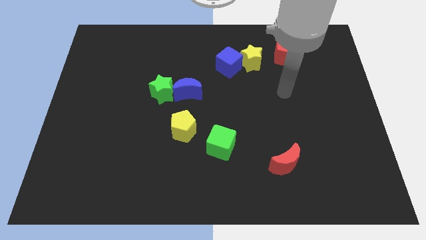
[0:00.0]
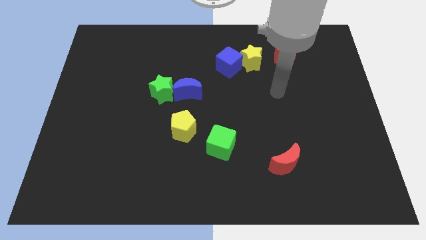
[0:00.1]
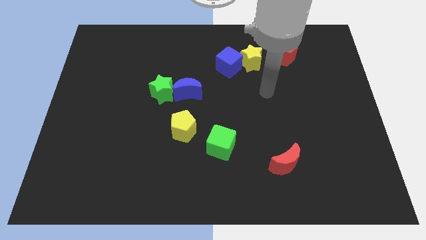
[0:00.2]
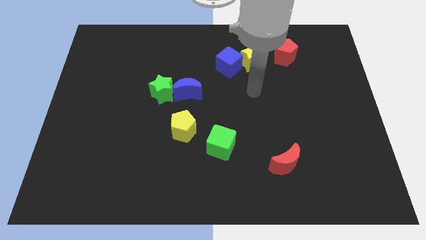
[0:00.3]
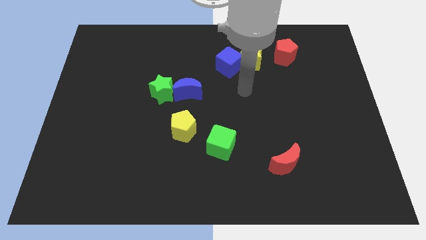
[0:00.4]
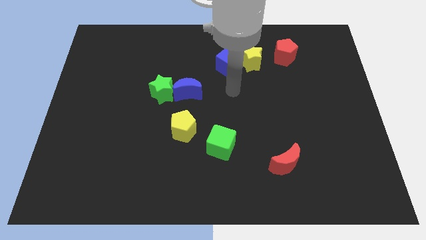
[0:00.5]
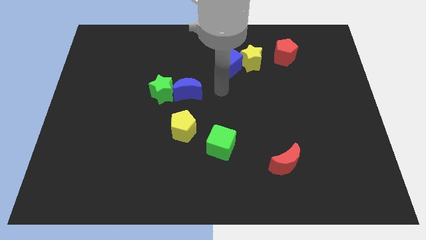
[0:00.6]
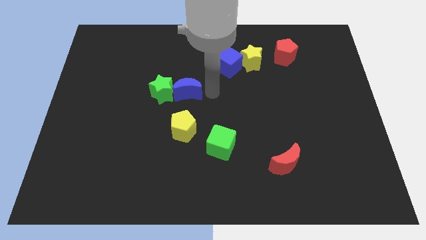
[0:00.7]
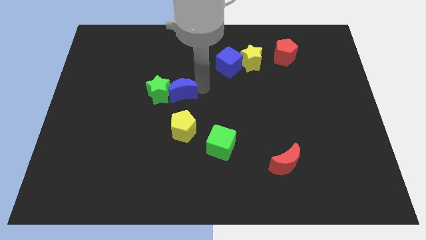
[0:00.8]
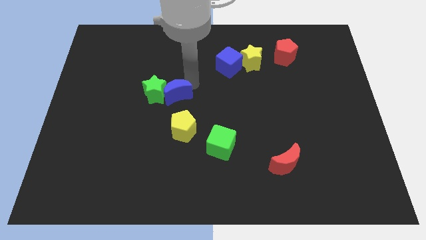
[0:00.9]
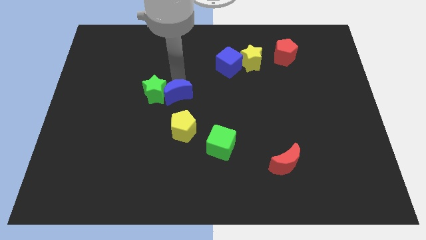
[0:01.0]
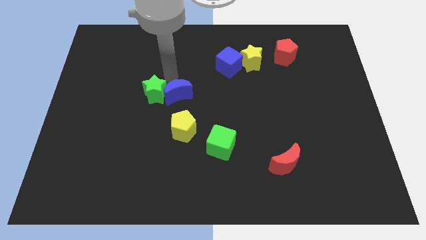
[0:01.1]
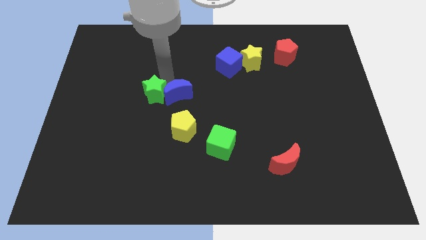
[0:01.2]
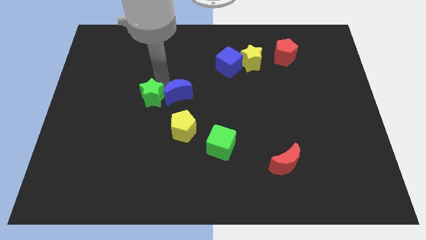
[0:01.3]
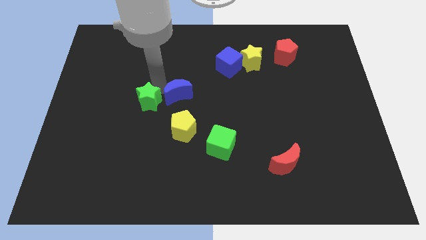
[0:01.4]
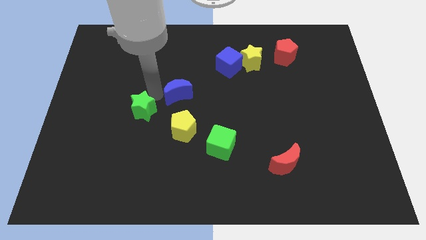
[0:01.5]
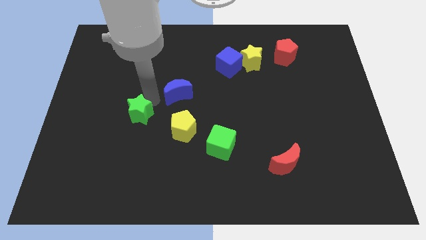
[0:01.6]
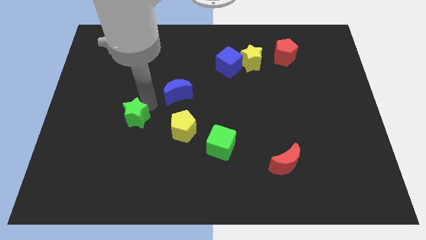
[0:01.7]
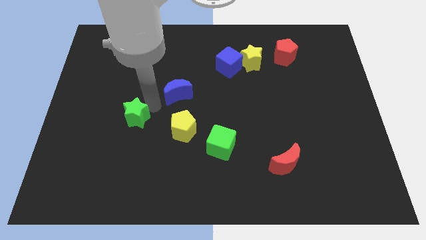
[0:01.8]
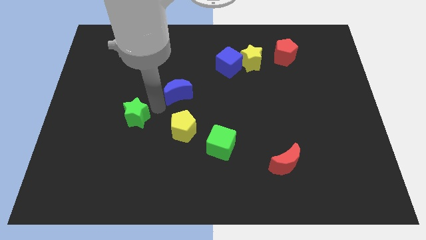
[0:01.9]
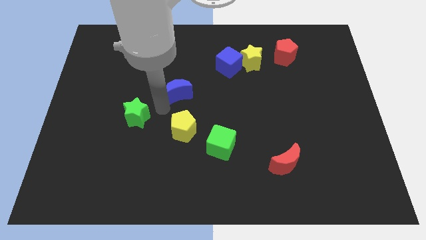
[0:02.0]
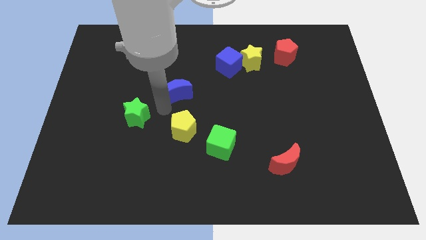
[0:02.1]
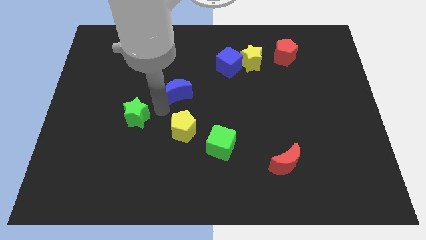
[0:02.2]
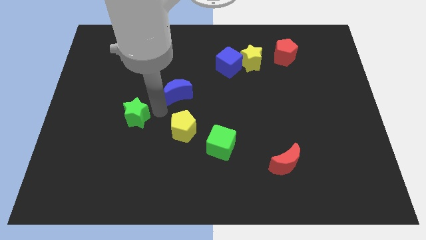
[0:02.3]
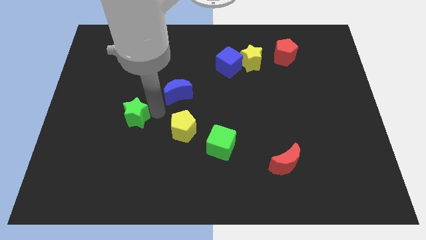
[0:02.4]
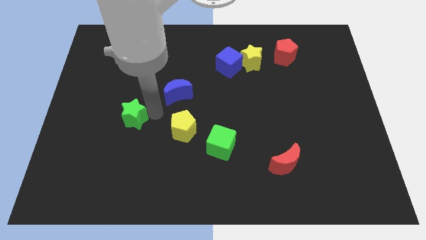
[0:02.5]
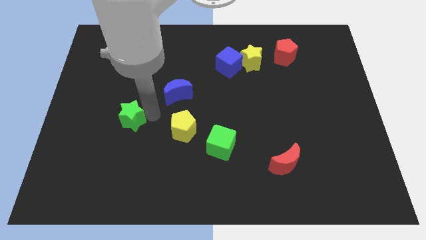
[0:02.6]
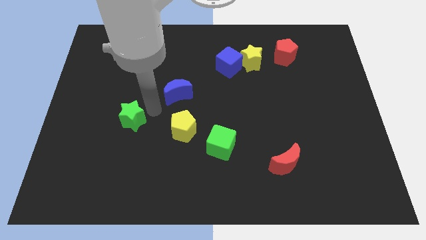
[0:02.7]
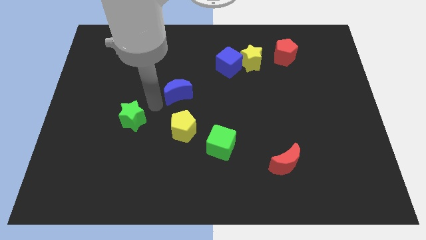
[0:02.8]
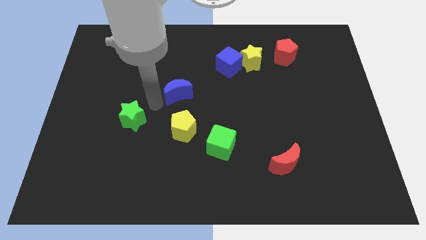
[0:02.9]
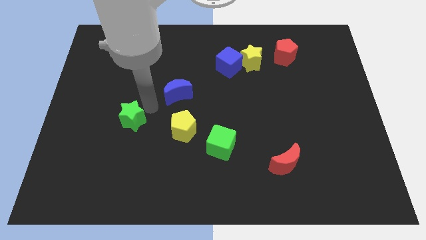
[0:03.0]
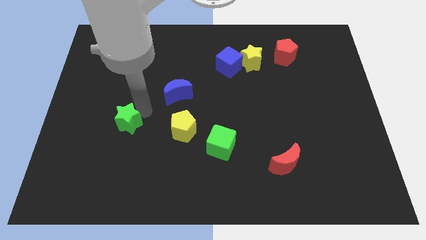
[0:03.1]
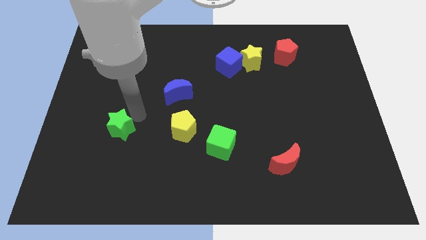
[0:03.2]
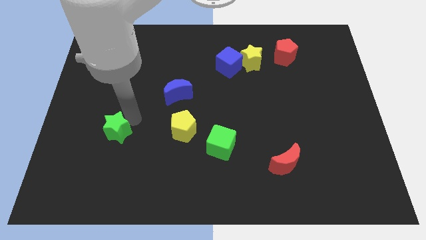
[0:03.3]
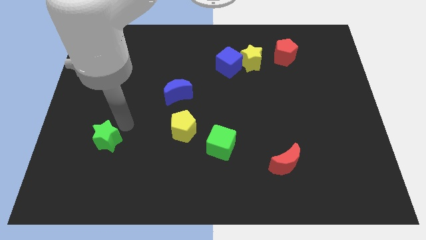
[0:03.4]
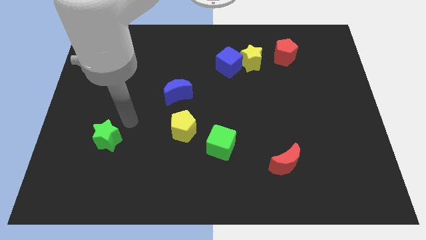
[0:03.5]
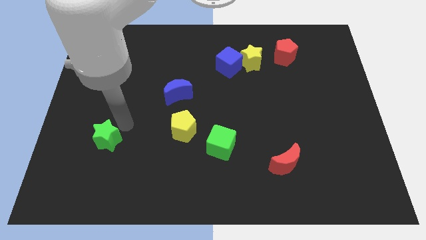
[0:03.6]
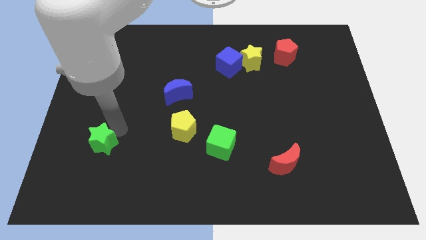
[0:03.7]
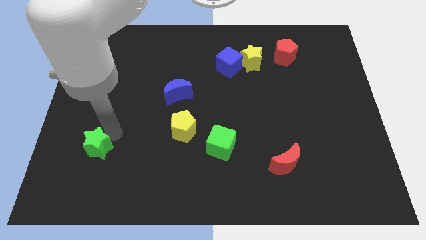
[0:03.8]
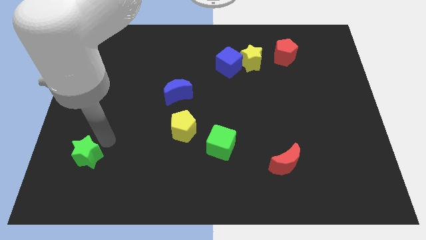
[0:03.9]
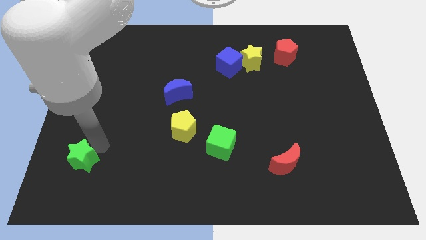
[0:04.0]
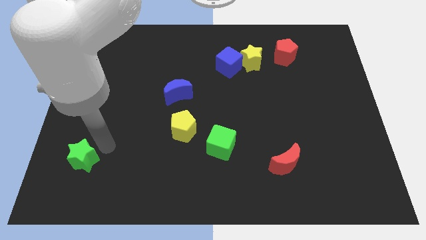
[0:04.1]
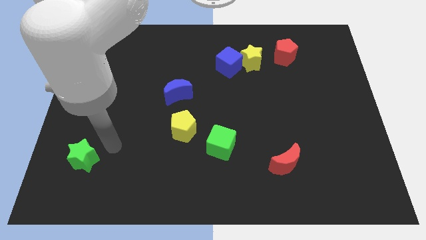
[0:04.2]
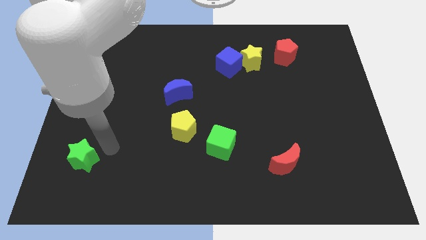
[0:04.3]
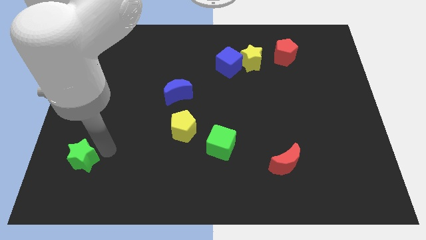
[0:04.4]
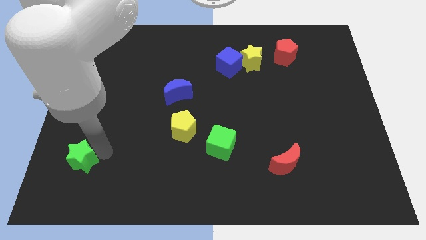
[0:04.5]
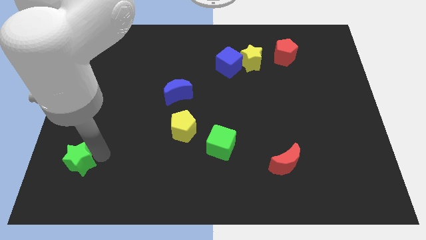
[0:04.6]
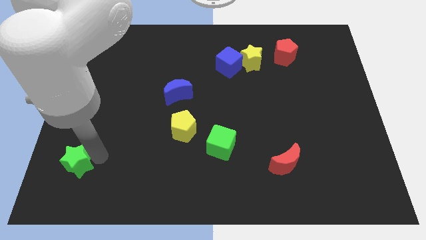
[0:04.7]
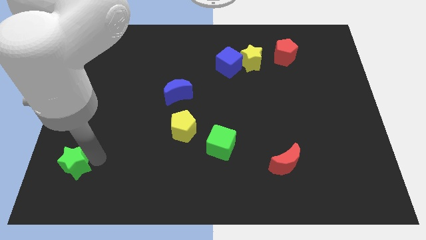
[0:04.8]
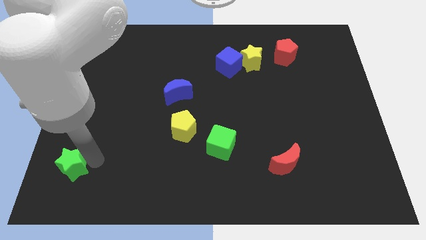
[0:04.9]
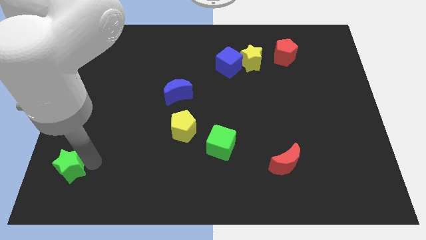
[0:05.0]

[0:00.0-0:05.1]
move the green star to the bottom left

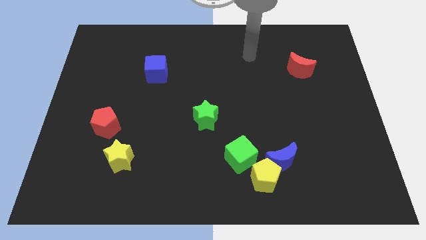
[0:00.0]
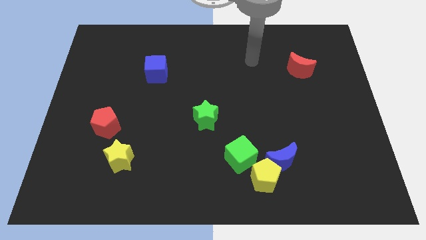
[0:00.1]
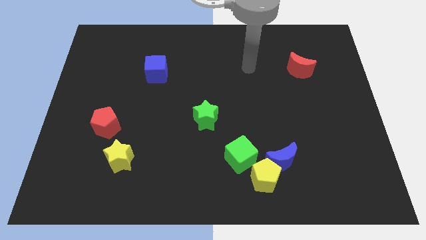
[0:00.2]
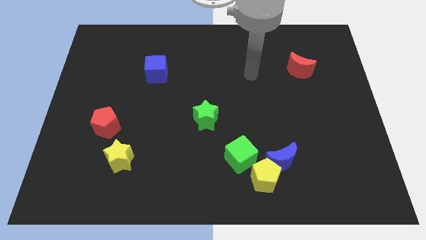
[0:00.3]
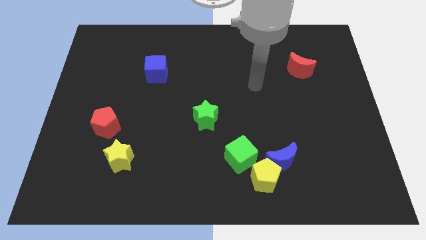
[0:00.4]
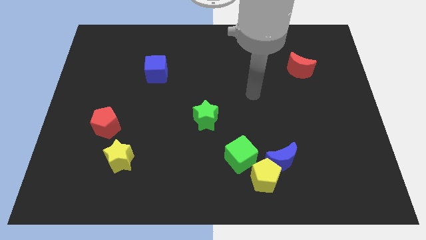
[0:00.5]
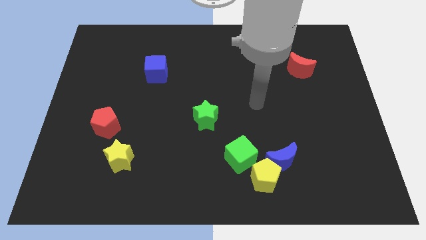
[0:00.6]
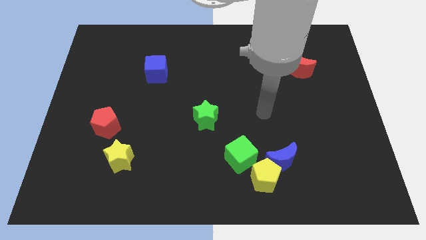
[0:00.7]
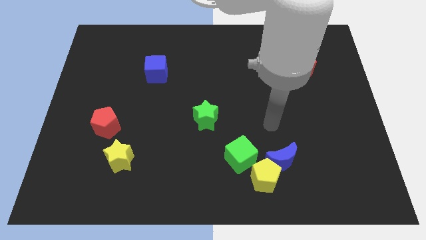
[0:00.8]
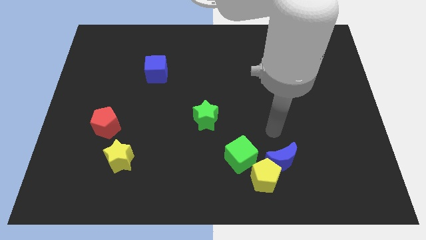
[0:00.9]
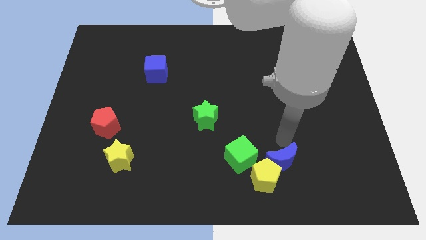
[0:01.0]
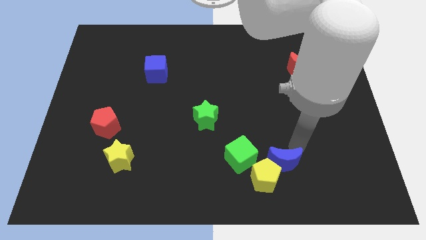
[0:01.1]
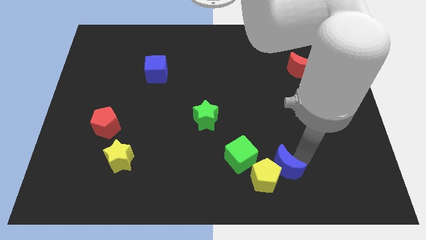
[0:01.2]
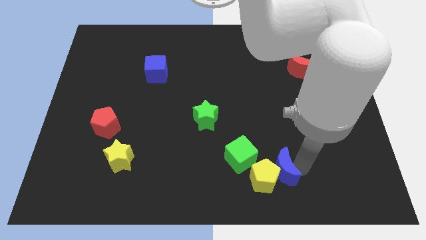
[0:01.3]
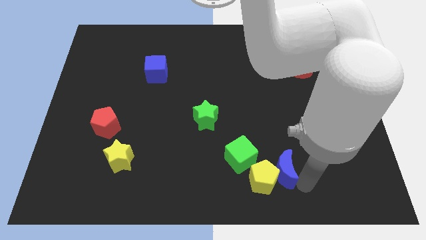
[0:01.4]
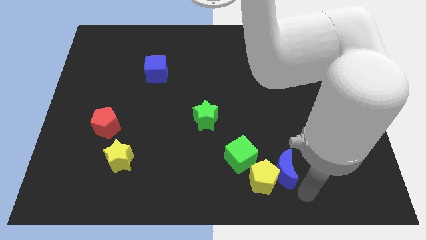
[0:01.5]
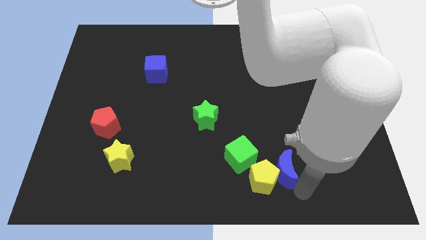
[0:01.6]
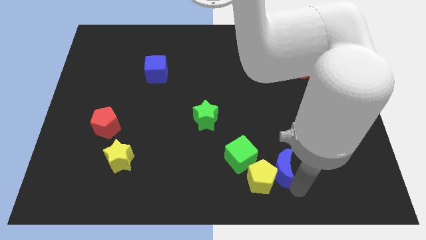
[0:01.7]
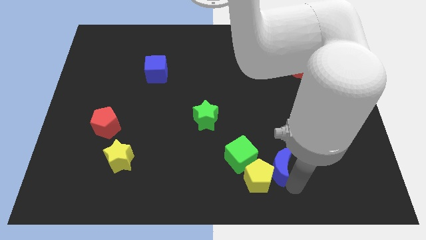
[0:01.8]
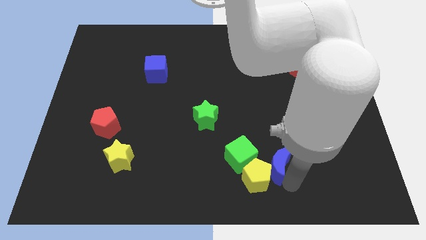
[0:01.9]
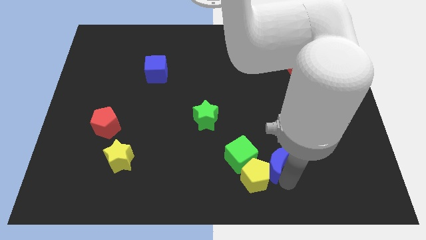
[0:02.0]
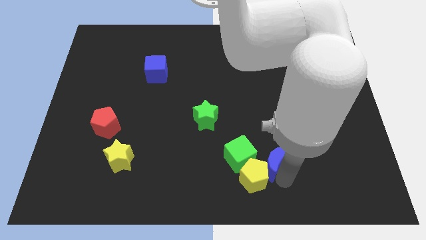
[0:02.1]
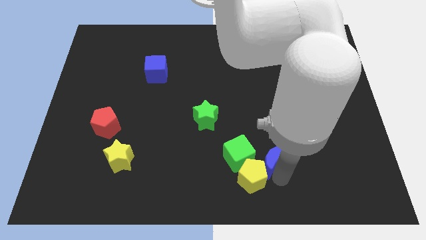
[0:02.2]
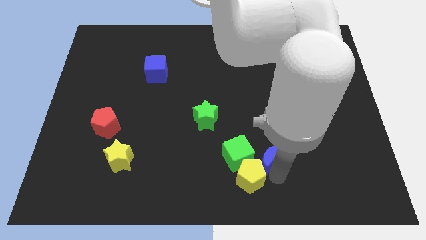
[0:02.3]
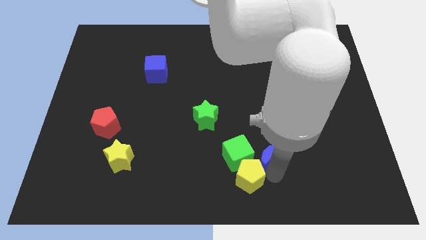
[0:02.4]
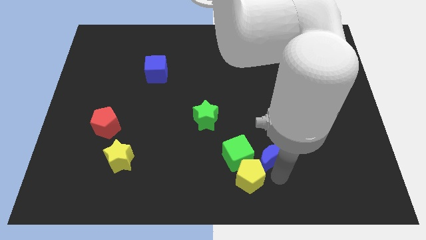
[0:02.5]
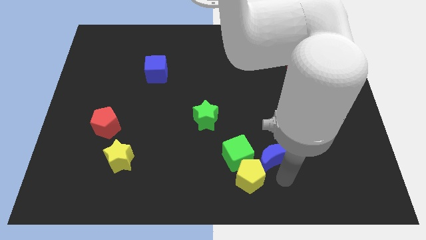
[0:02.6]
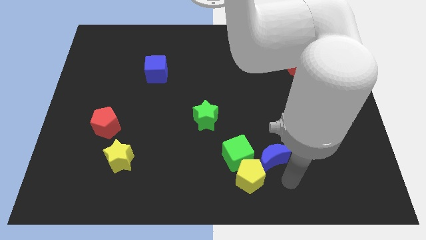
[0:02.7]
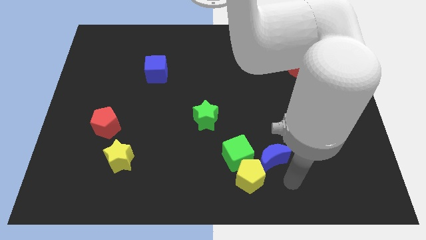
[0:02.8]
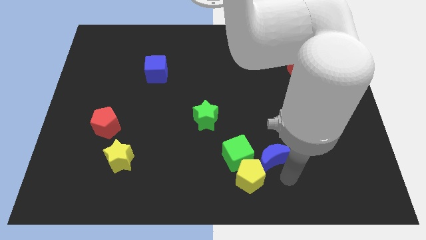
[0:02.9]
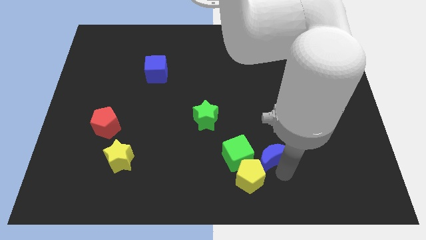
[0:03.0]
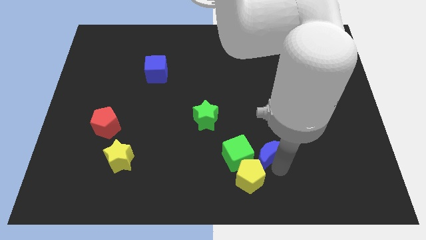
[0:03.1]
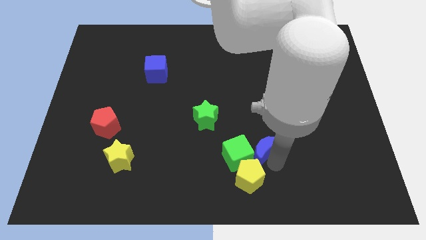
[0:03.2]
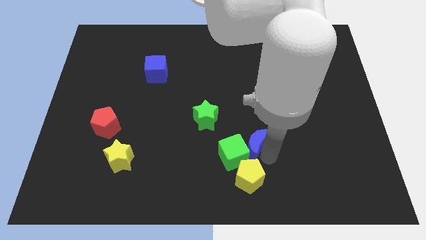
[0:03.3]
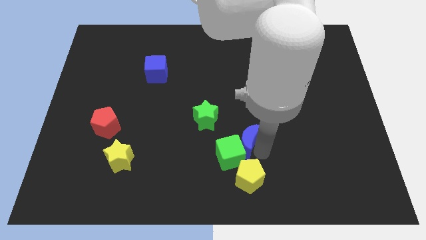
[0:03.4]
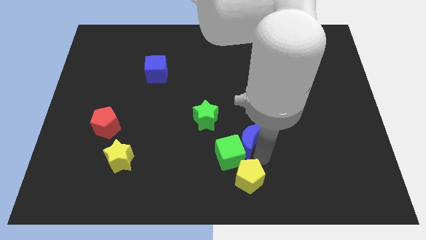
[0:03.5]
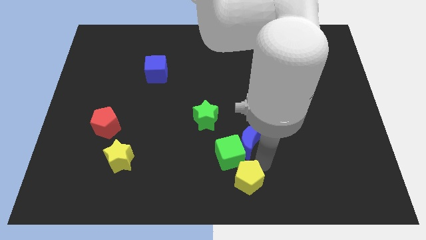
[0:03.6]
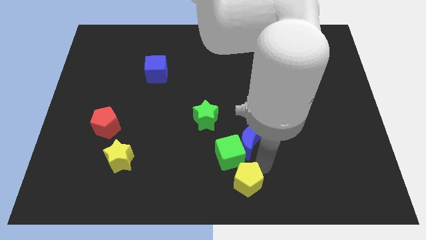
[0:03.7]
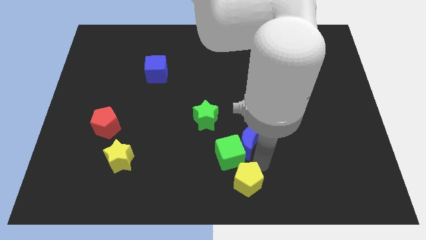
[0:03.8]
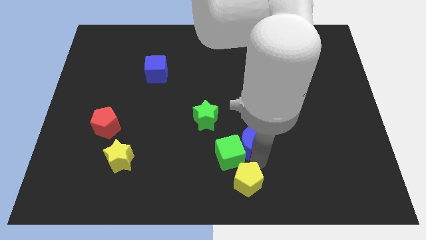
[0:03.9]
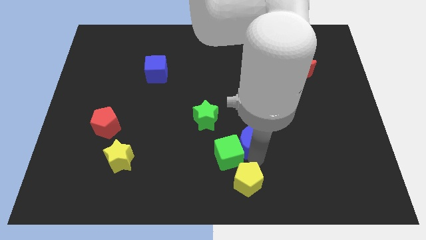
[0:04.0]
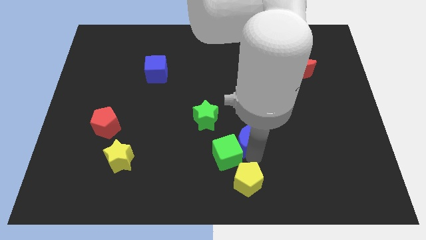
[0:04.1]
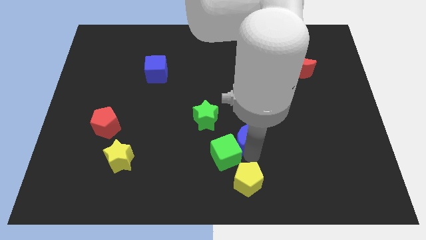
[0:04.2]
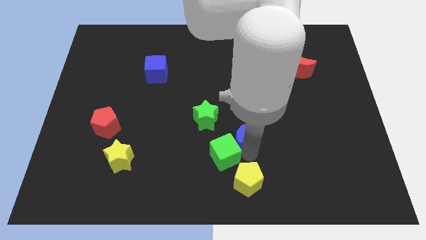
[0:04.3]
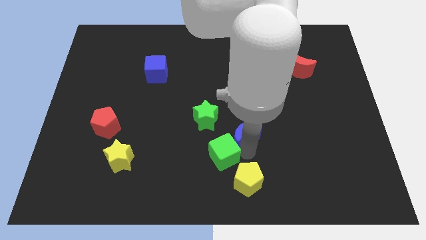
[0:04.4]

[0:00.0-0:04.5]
push the blue moon to the middle of the board
